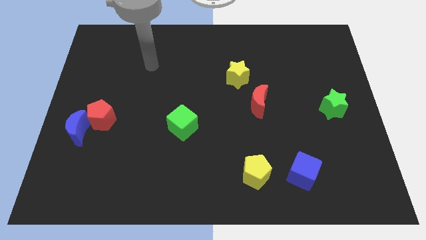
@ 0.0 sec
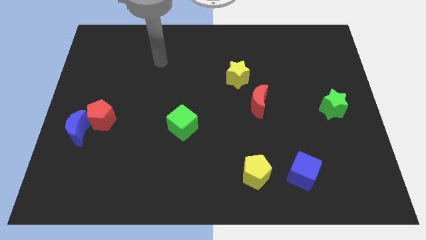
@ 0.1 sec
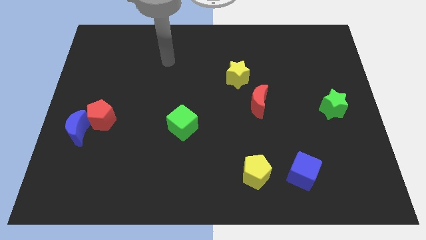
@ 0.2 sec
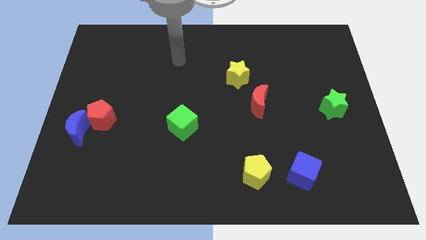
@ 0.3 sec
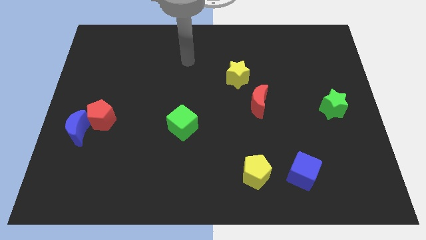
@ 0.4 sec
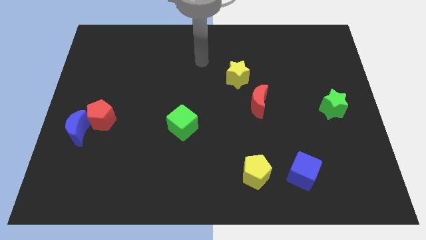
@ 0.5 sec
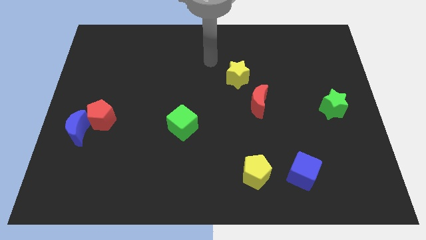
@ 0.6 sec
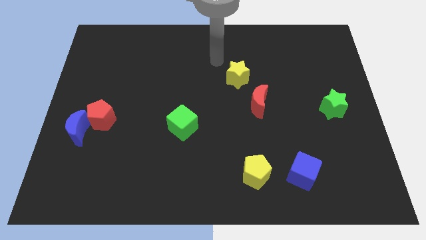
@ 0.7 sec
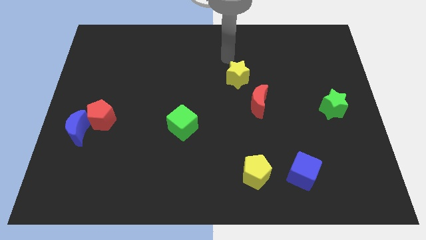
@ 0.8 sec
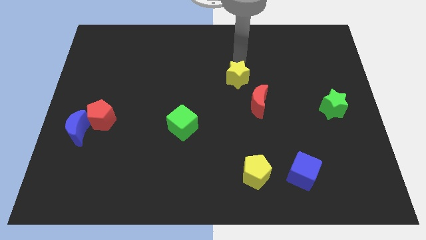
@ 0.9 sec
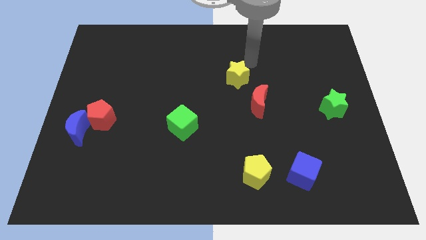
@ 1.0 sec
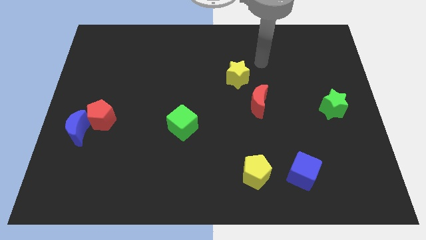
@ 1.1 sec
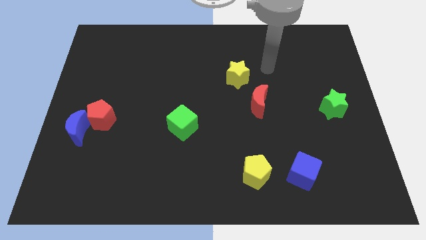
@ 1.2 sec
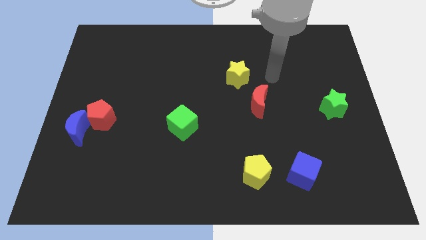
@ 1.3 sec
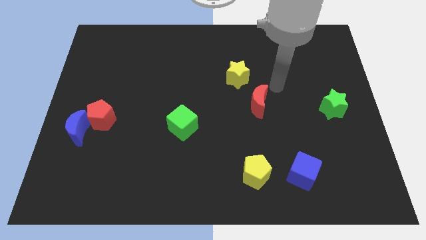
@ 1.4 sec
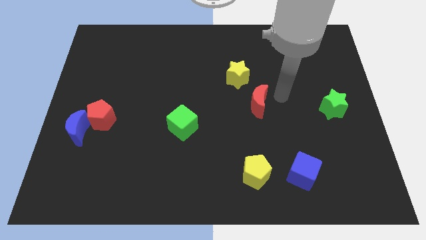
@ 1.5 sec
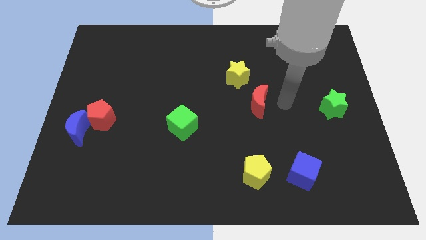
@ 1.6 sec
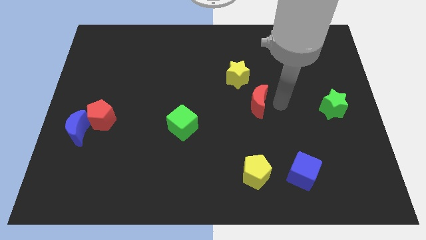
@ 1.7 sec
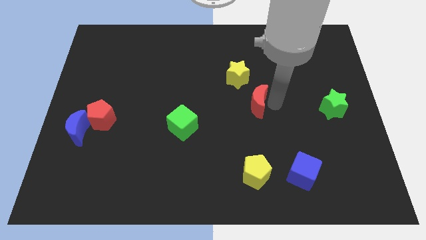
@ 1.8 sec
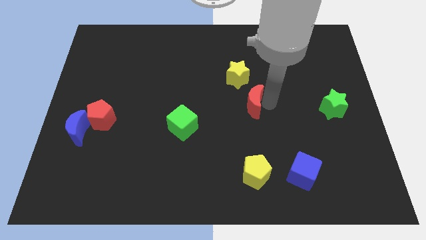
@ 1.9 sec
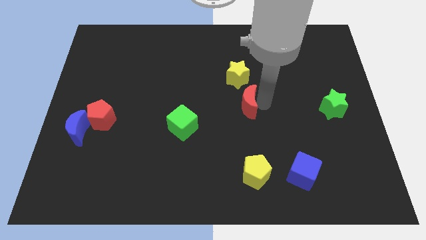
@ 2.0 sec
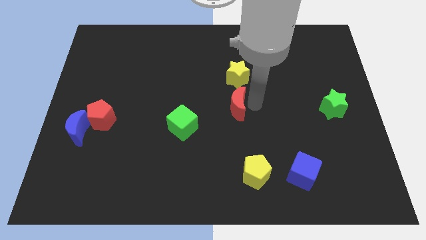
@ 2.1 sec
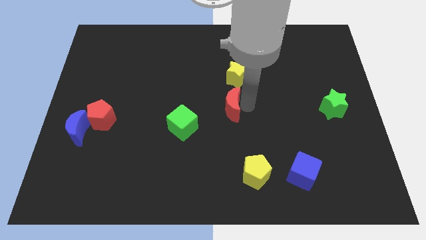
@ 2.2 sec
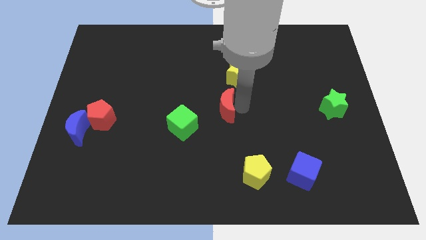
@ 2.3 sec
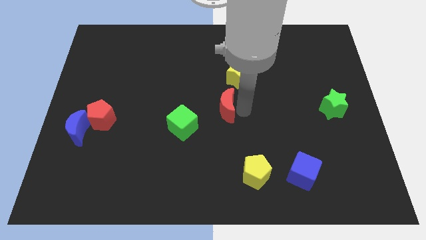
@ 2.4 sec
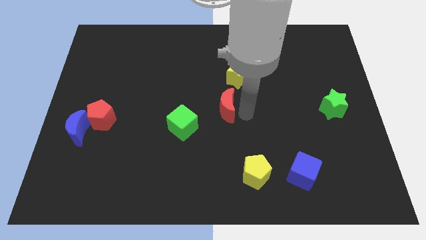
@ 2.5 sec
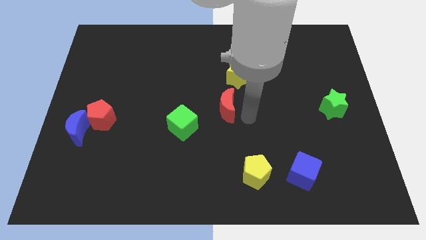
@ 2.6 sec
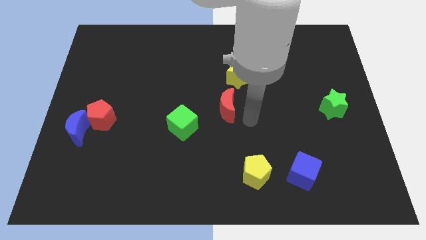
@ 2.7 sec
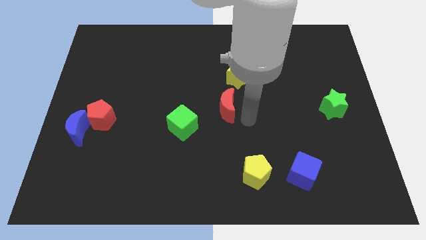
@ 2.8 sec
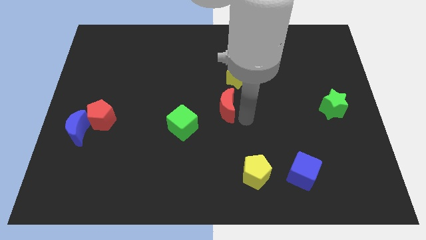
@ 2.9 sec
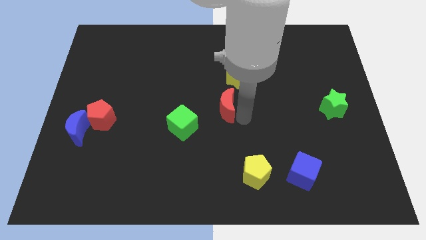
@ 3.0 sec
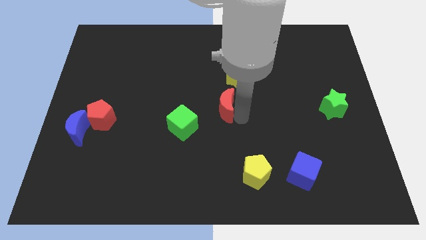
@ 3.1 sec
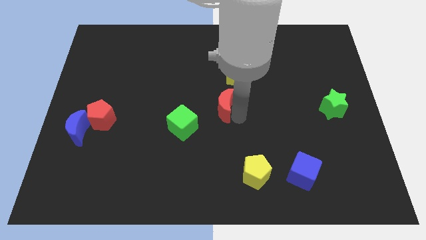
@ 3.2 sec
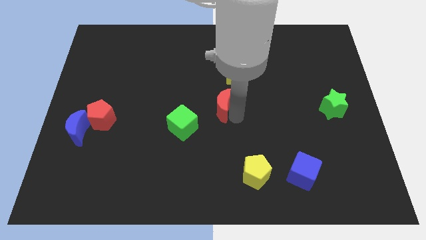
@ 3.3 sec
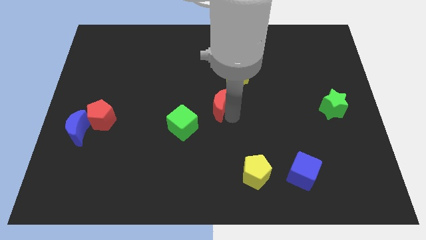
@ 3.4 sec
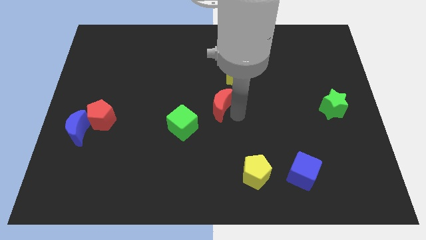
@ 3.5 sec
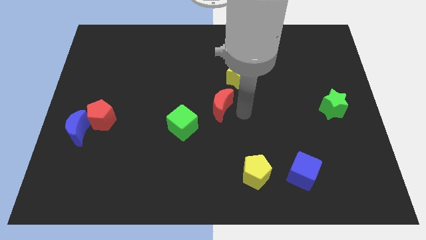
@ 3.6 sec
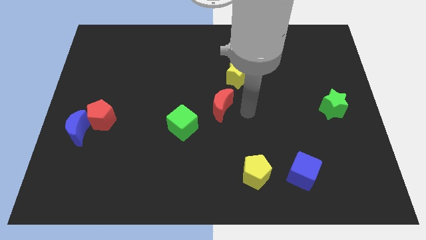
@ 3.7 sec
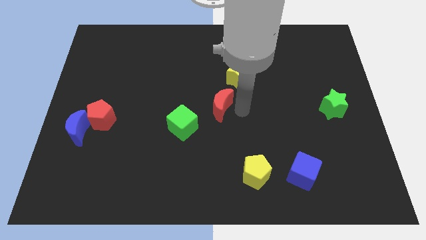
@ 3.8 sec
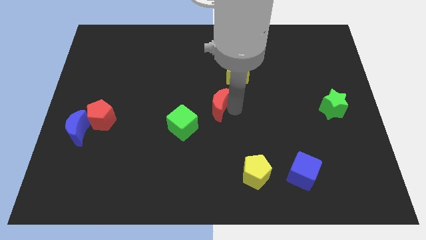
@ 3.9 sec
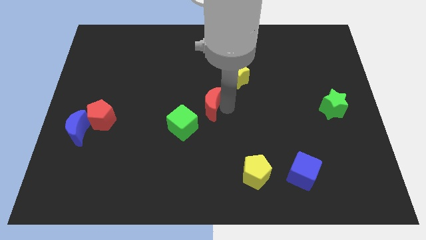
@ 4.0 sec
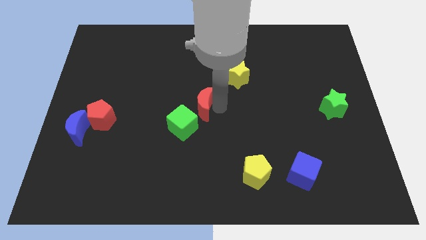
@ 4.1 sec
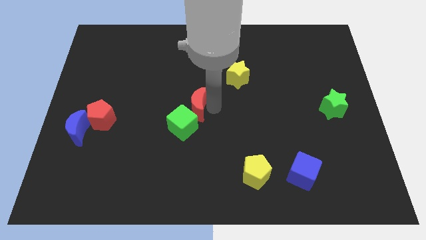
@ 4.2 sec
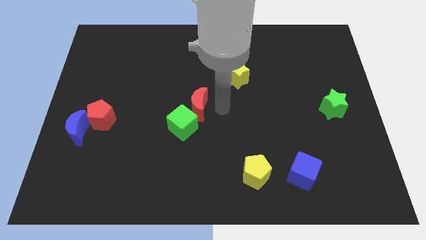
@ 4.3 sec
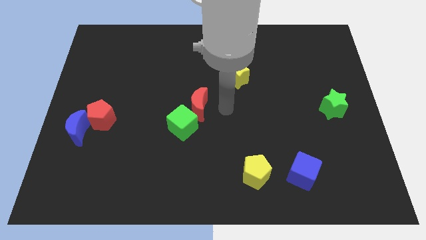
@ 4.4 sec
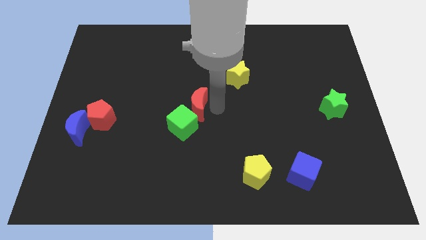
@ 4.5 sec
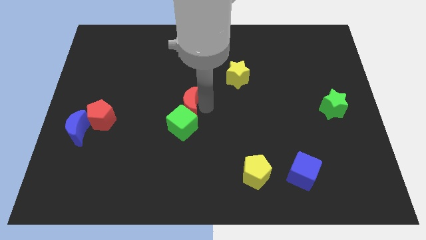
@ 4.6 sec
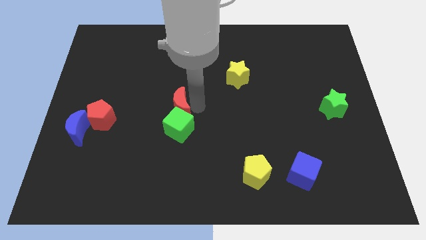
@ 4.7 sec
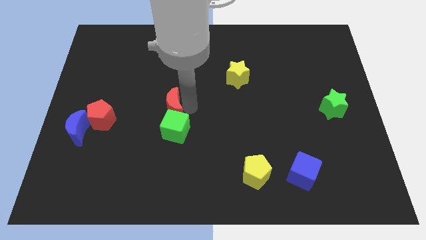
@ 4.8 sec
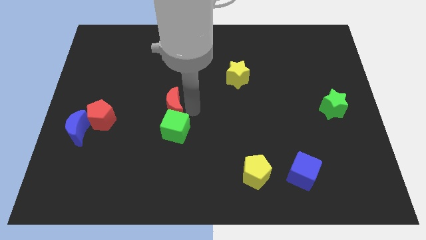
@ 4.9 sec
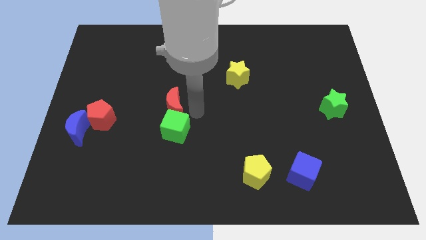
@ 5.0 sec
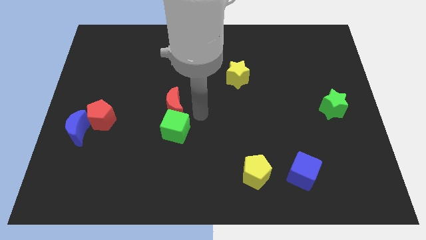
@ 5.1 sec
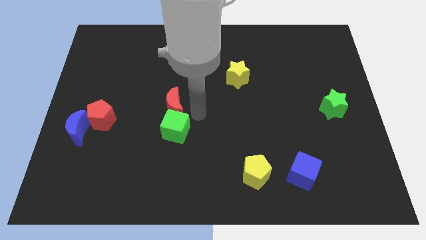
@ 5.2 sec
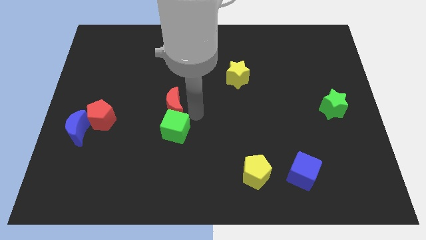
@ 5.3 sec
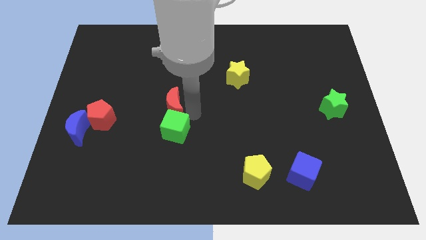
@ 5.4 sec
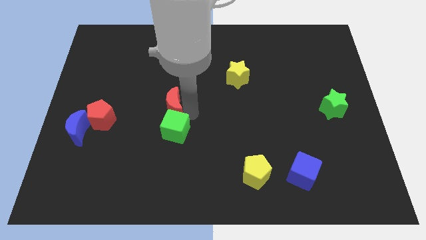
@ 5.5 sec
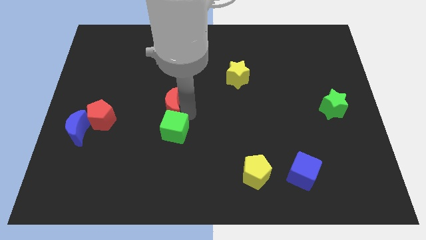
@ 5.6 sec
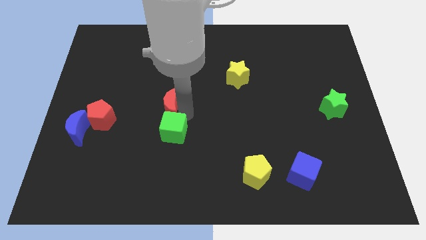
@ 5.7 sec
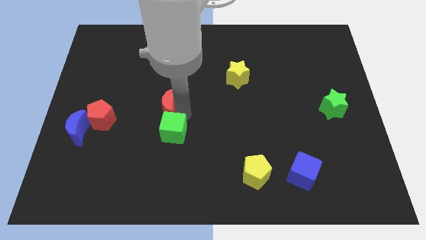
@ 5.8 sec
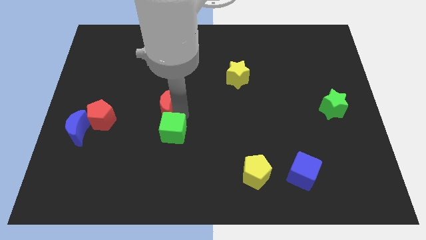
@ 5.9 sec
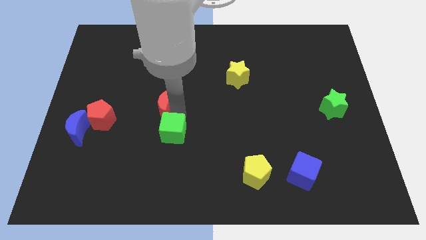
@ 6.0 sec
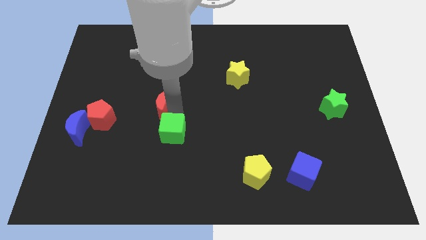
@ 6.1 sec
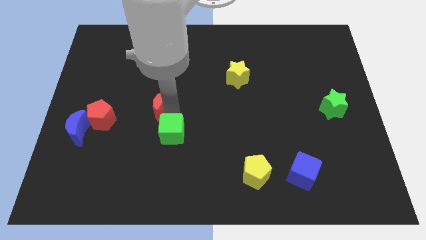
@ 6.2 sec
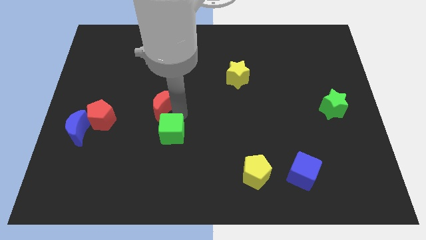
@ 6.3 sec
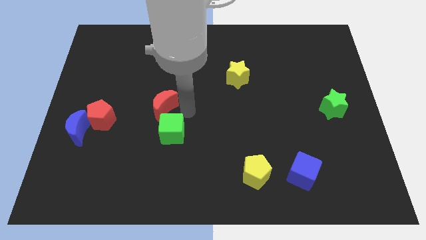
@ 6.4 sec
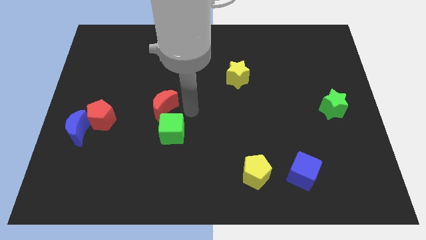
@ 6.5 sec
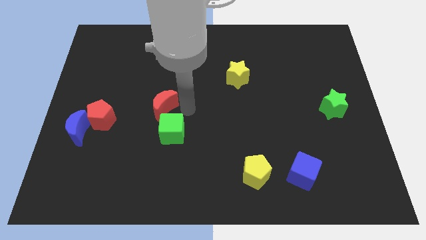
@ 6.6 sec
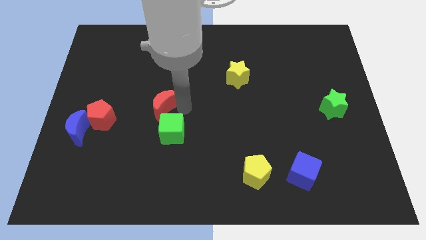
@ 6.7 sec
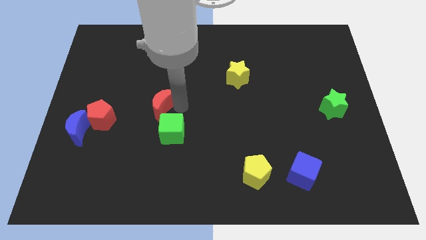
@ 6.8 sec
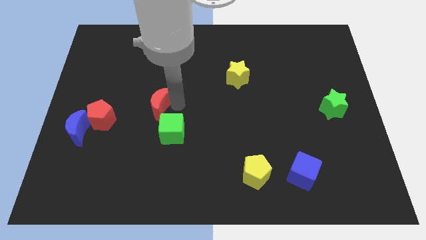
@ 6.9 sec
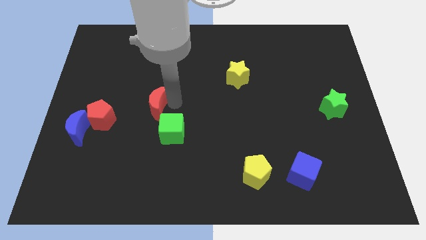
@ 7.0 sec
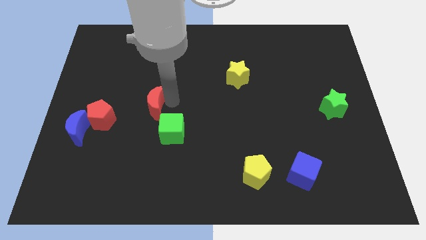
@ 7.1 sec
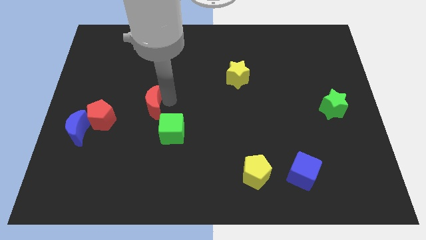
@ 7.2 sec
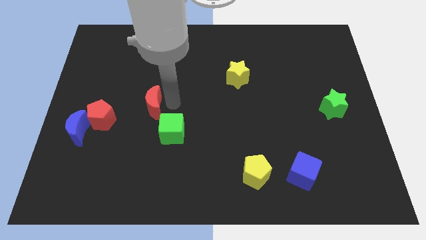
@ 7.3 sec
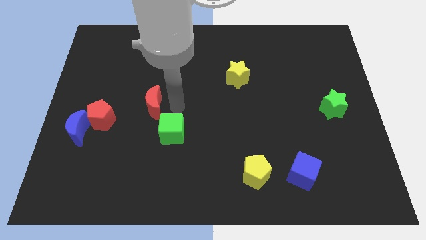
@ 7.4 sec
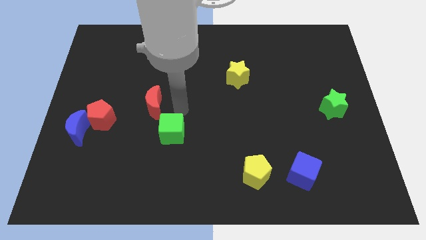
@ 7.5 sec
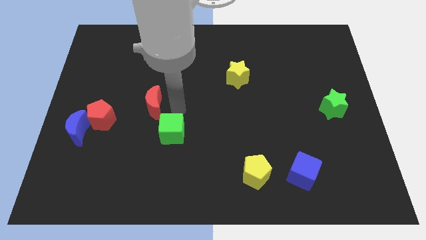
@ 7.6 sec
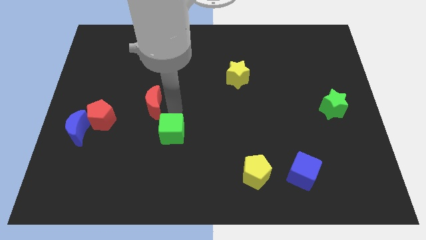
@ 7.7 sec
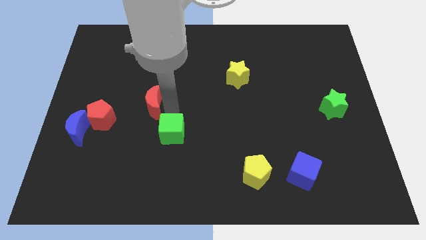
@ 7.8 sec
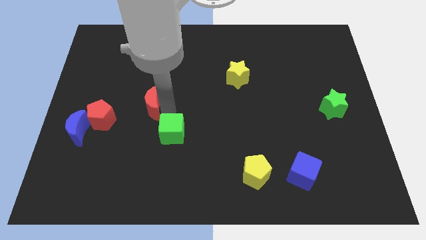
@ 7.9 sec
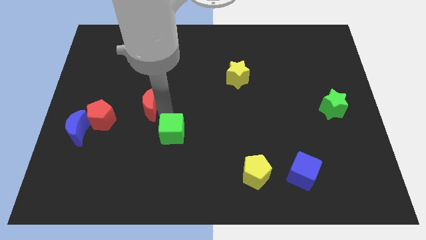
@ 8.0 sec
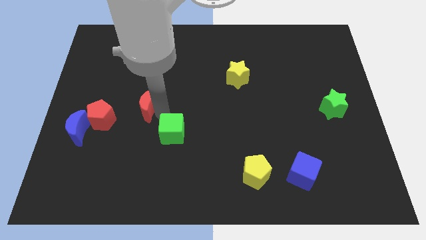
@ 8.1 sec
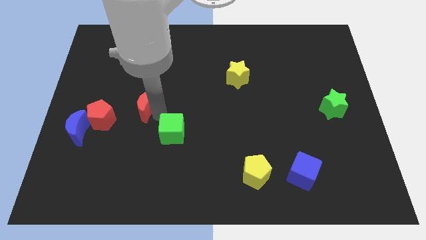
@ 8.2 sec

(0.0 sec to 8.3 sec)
put the red moon diagonally up and to the right of the red pentagon
